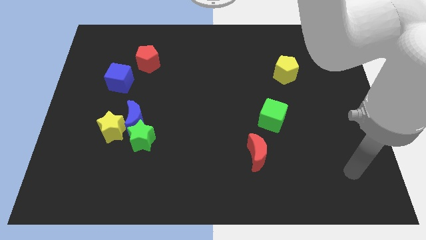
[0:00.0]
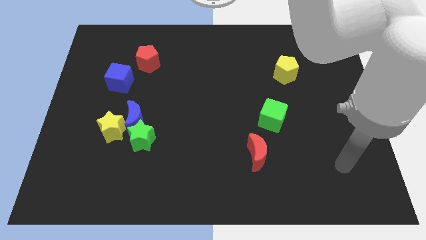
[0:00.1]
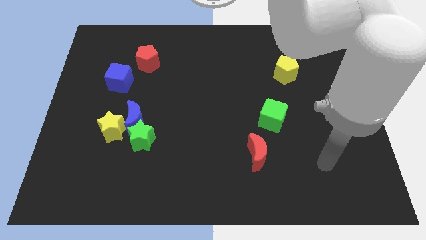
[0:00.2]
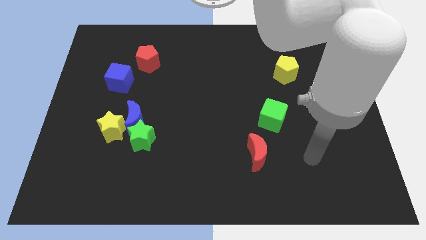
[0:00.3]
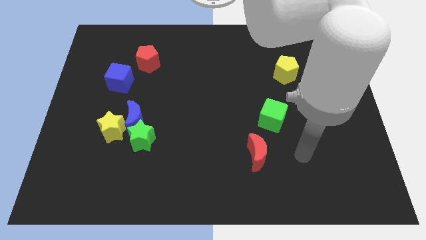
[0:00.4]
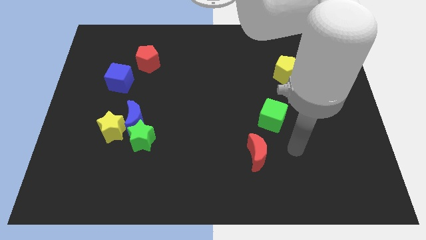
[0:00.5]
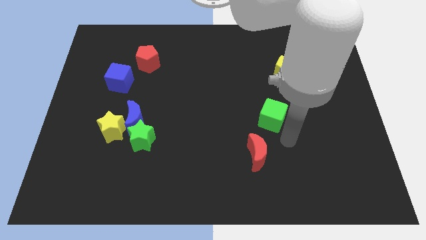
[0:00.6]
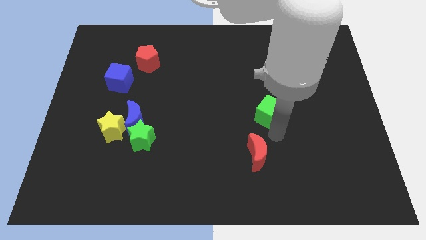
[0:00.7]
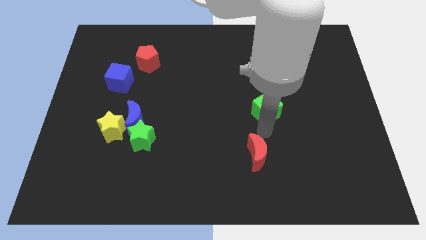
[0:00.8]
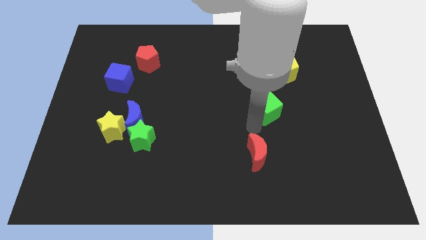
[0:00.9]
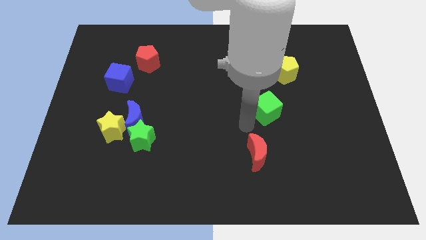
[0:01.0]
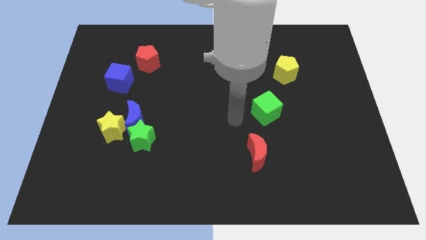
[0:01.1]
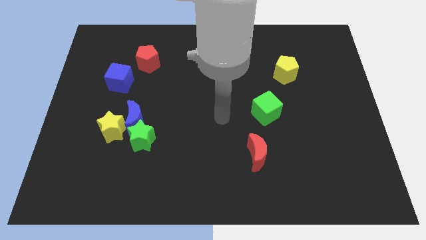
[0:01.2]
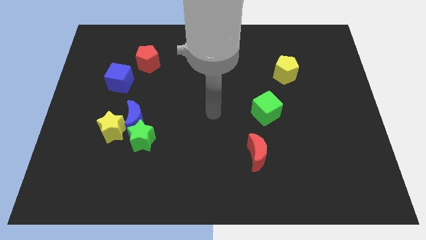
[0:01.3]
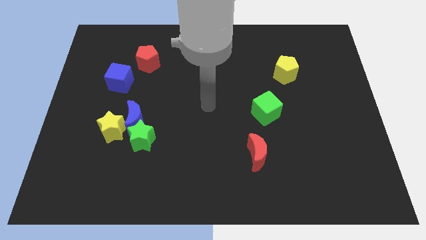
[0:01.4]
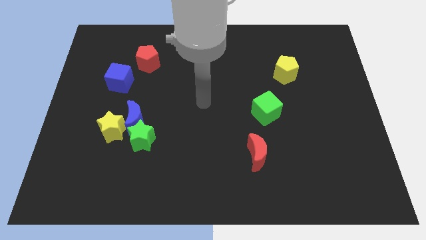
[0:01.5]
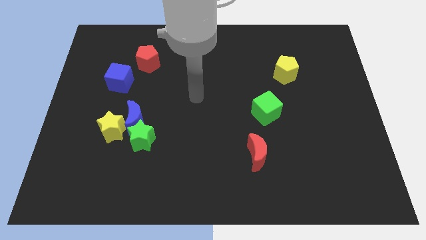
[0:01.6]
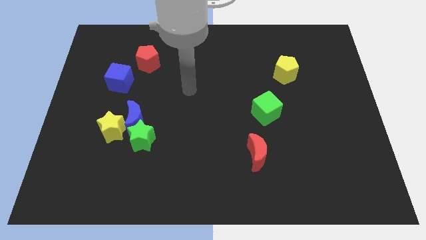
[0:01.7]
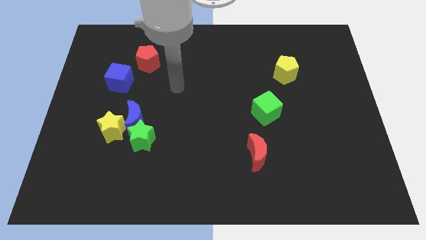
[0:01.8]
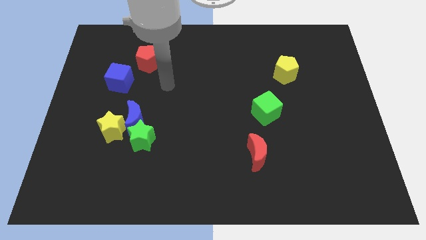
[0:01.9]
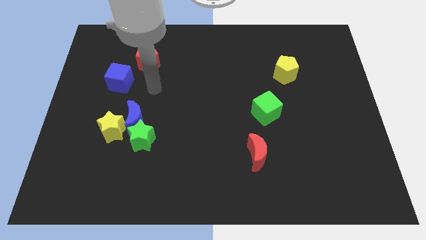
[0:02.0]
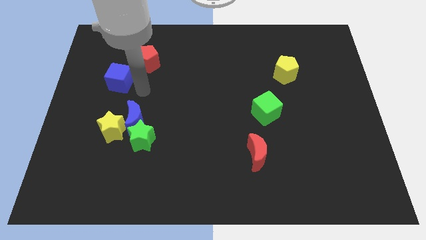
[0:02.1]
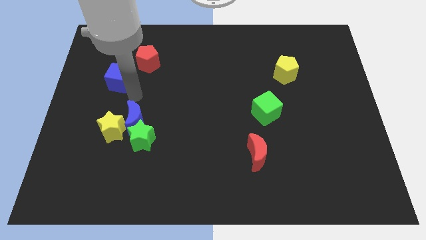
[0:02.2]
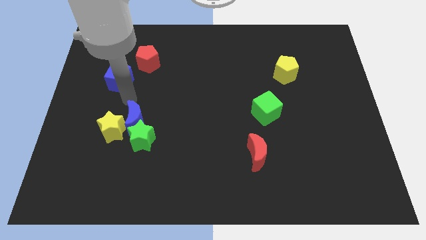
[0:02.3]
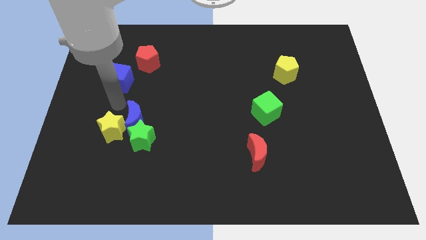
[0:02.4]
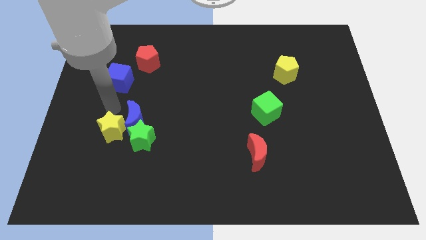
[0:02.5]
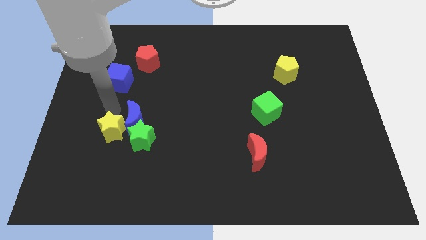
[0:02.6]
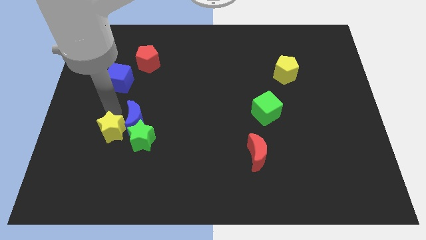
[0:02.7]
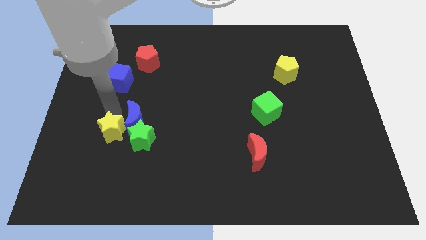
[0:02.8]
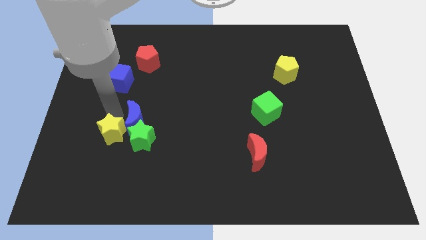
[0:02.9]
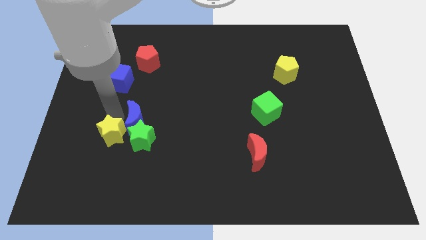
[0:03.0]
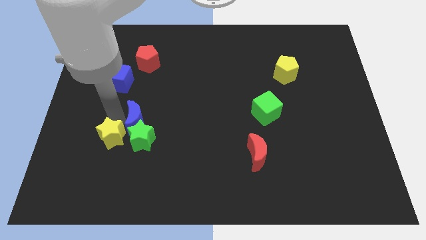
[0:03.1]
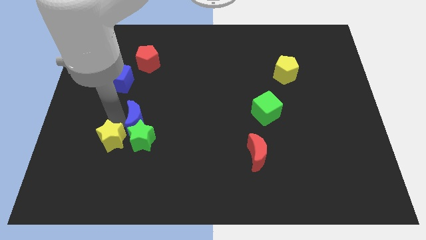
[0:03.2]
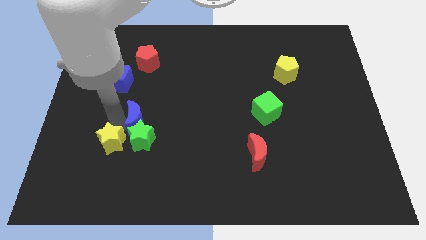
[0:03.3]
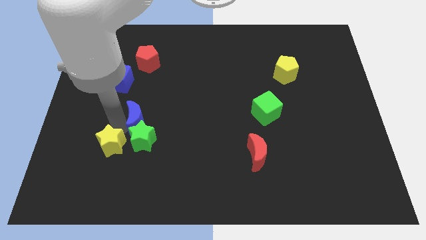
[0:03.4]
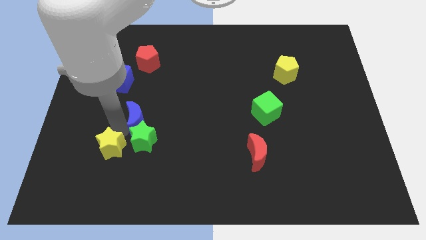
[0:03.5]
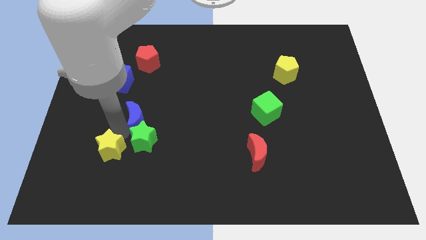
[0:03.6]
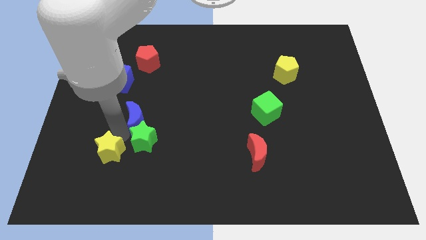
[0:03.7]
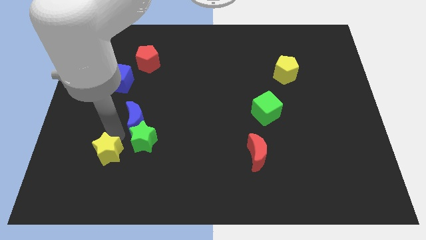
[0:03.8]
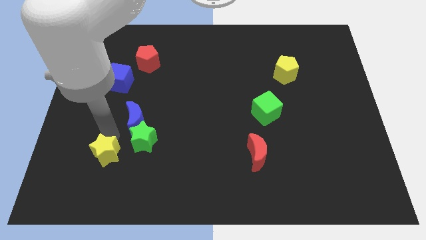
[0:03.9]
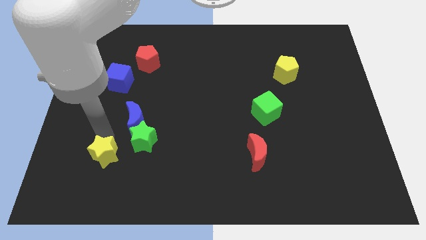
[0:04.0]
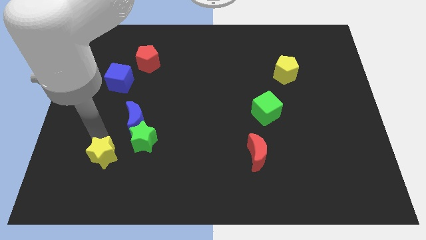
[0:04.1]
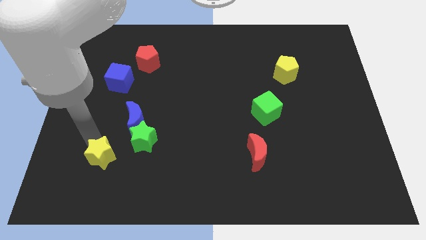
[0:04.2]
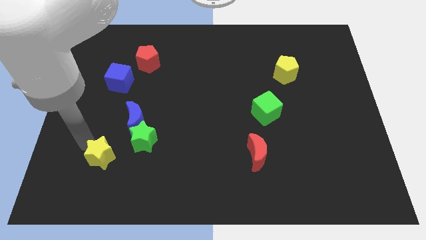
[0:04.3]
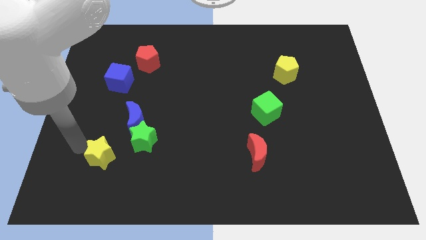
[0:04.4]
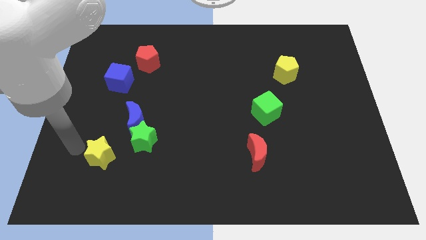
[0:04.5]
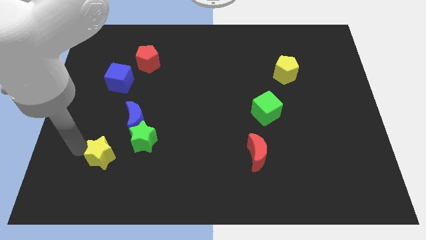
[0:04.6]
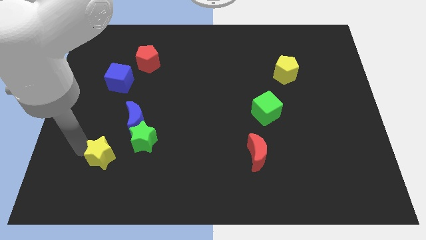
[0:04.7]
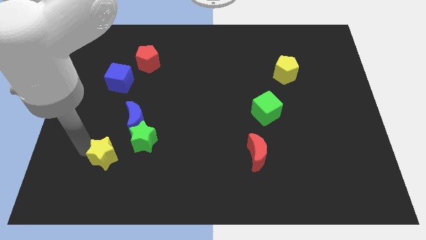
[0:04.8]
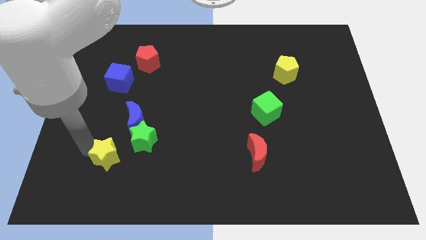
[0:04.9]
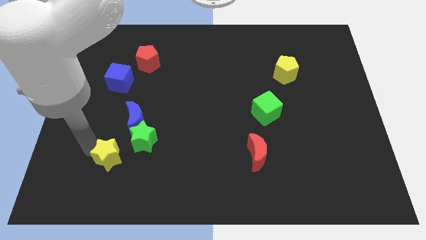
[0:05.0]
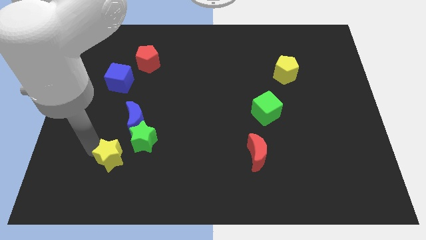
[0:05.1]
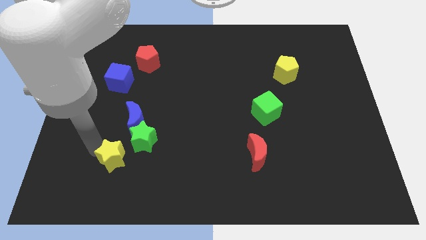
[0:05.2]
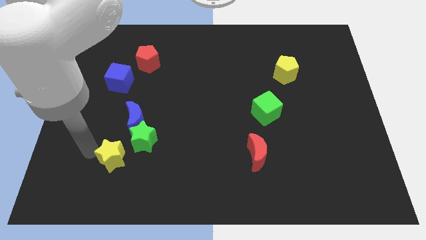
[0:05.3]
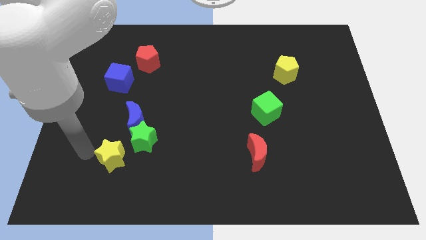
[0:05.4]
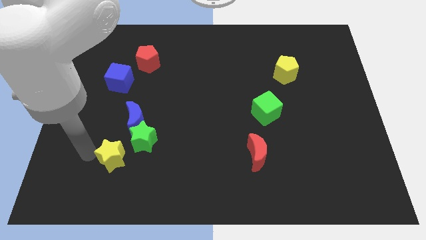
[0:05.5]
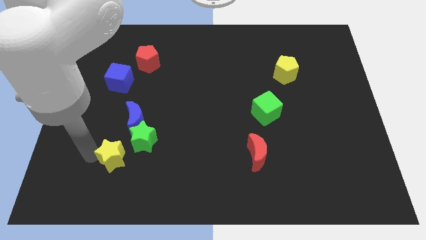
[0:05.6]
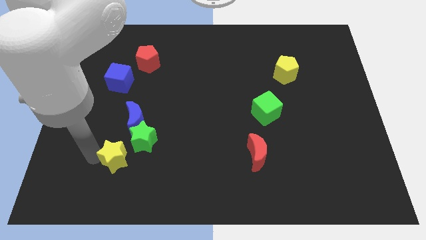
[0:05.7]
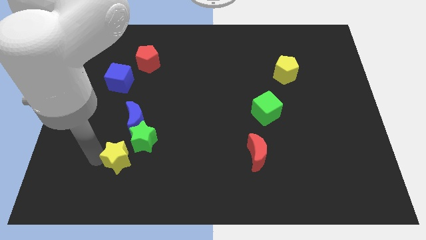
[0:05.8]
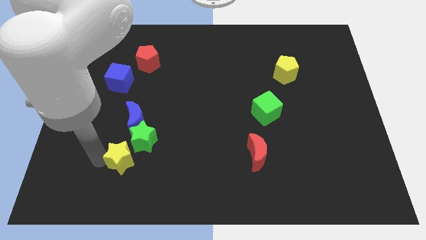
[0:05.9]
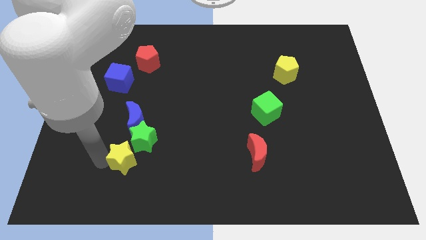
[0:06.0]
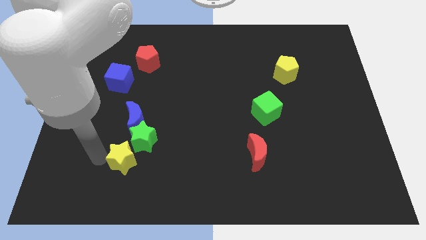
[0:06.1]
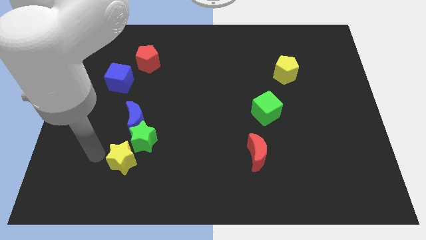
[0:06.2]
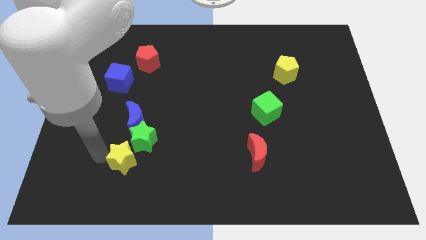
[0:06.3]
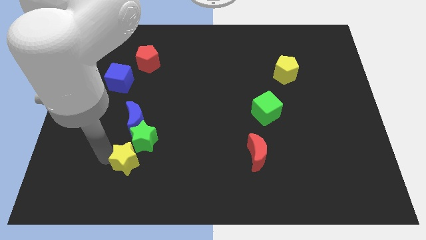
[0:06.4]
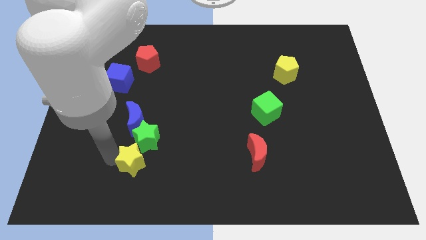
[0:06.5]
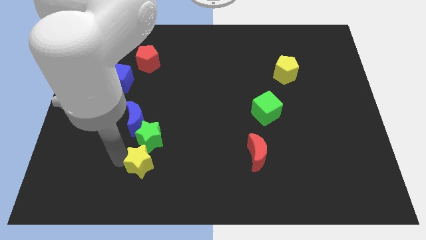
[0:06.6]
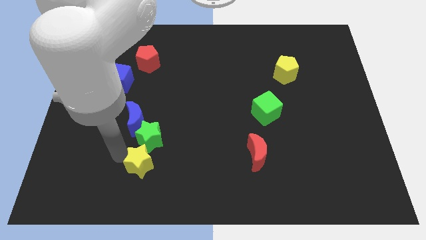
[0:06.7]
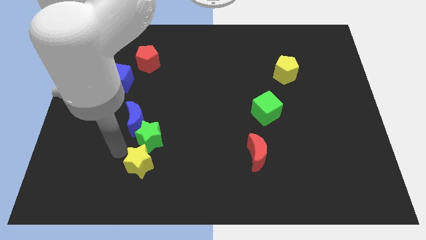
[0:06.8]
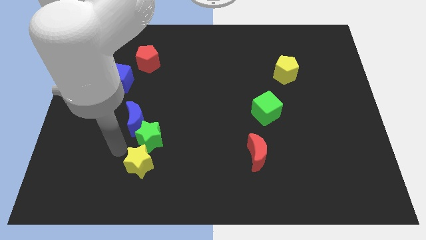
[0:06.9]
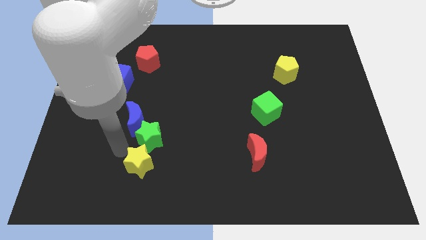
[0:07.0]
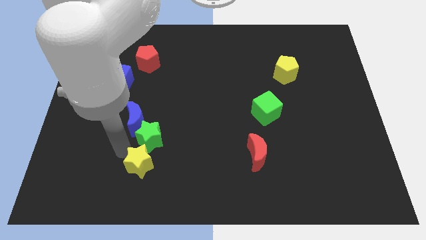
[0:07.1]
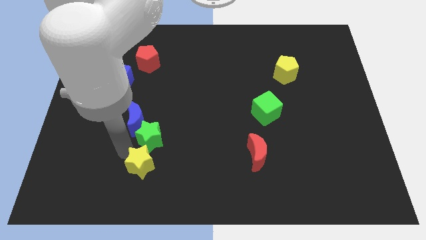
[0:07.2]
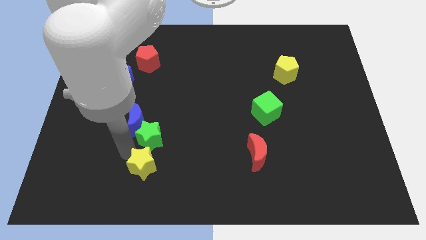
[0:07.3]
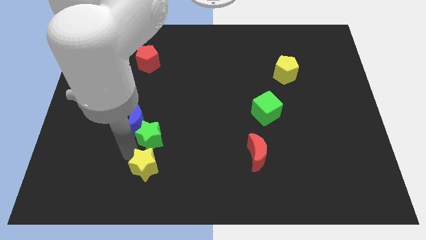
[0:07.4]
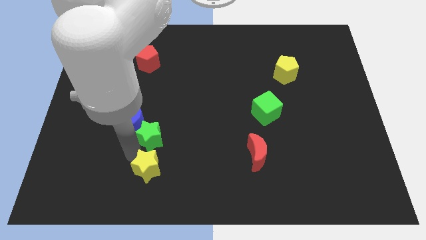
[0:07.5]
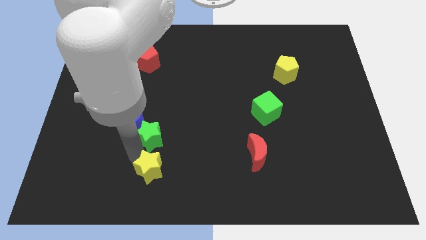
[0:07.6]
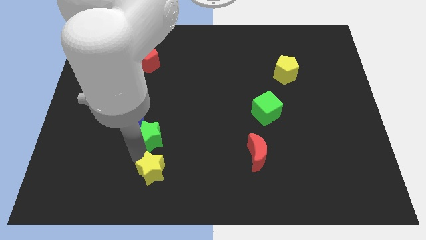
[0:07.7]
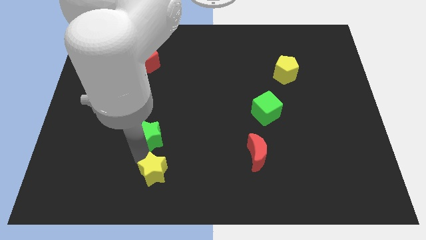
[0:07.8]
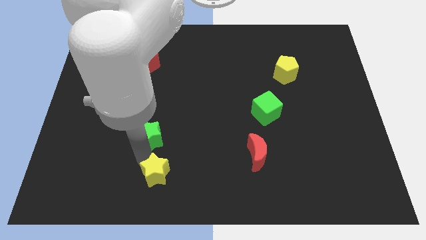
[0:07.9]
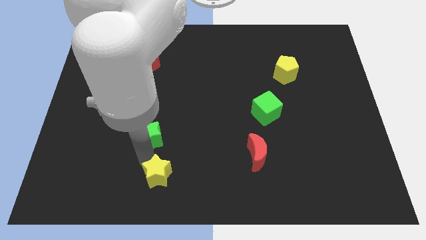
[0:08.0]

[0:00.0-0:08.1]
put the yellow star to the bottom
